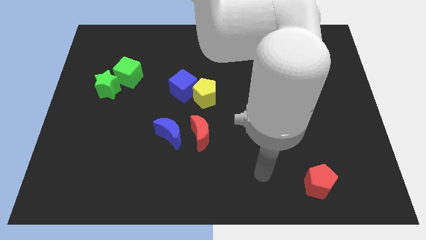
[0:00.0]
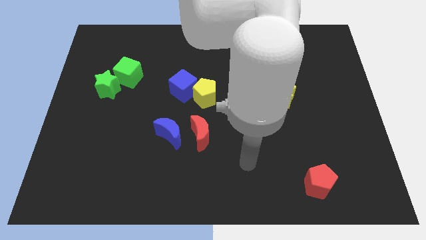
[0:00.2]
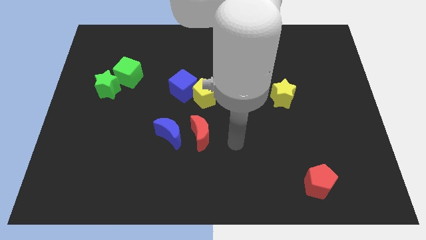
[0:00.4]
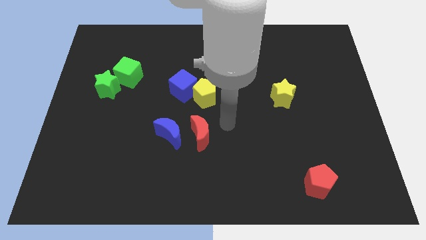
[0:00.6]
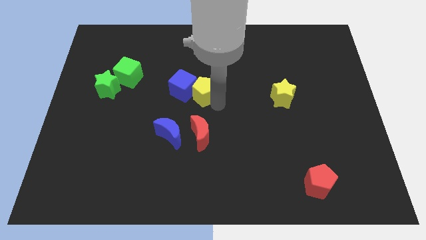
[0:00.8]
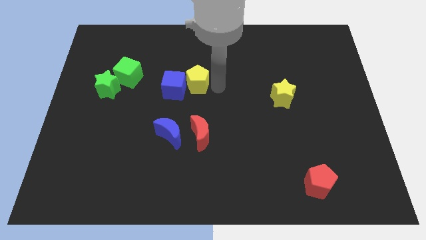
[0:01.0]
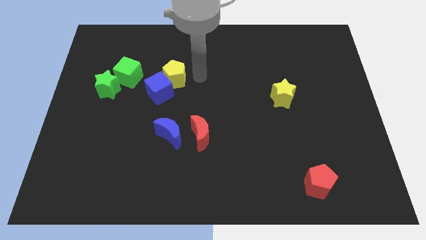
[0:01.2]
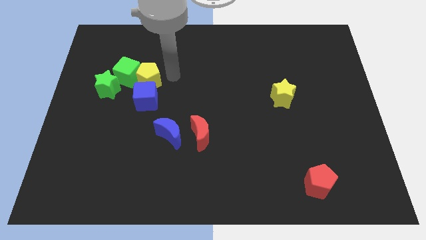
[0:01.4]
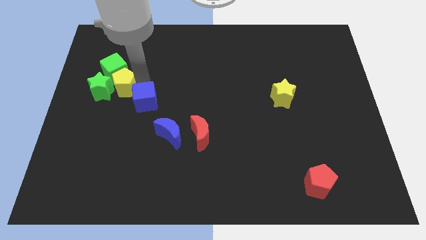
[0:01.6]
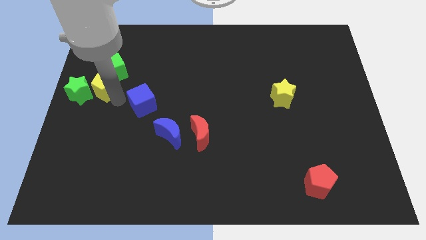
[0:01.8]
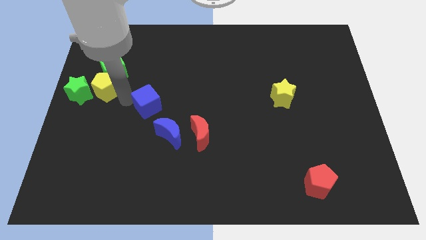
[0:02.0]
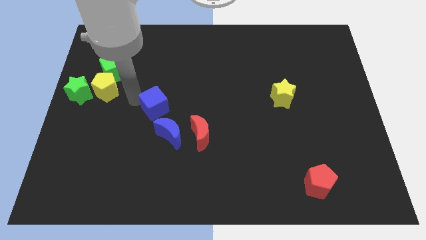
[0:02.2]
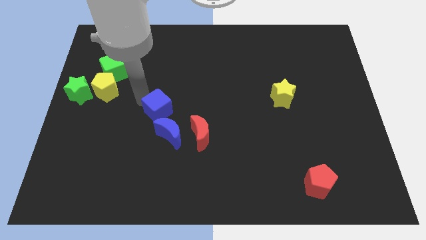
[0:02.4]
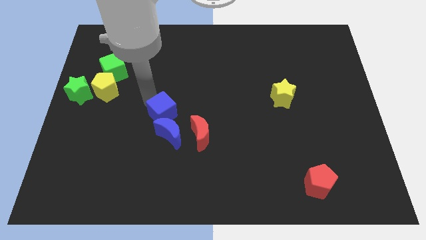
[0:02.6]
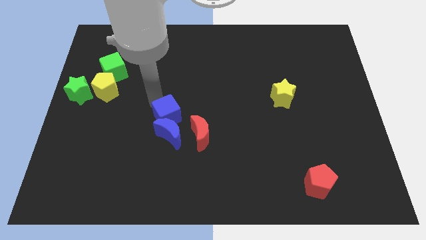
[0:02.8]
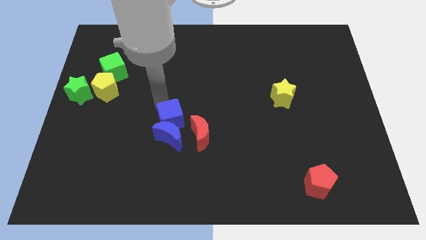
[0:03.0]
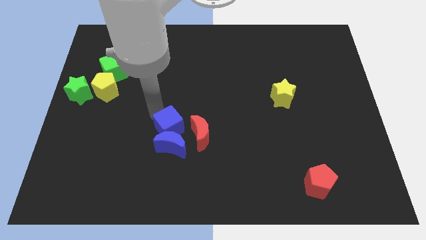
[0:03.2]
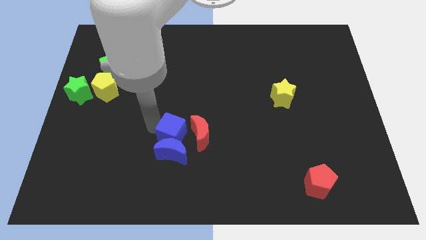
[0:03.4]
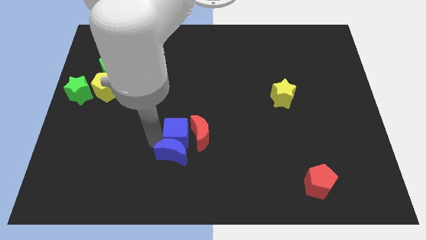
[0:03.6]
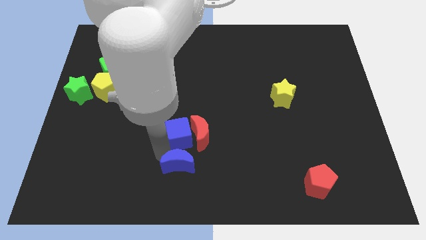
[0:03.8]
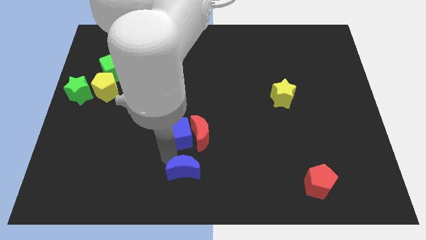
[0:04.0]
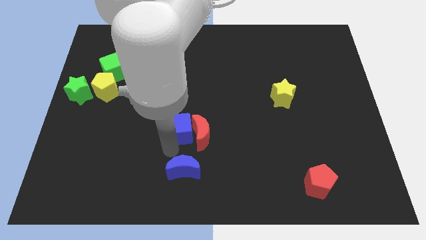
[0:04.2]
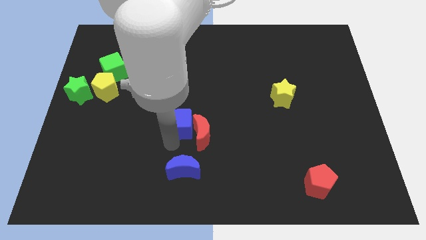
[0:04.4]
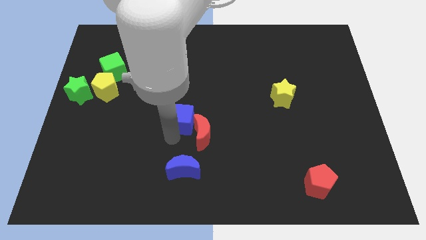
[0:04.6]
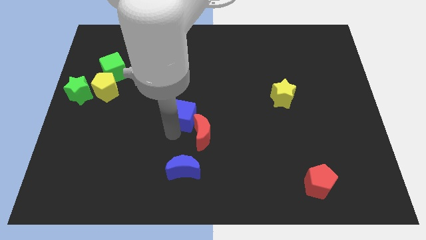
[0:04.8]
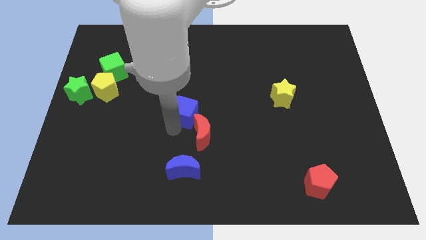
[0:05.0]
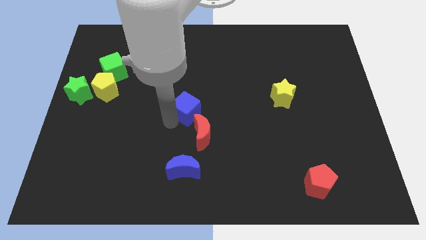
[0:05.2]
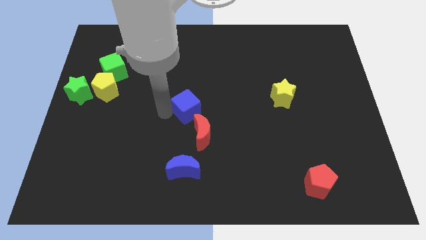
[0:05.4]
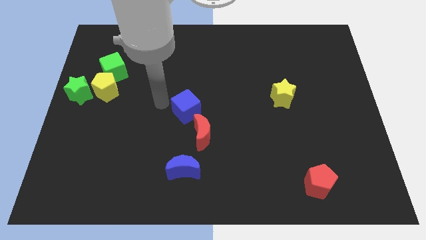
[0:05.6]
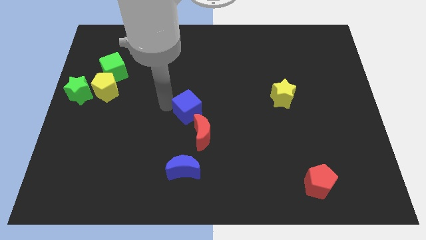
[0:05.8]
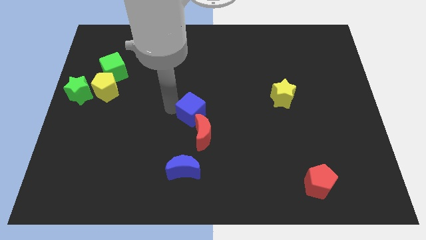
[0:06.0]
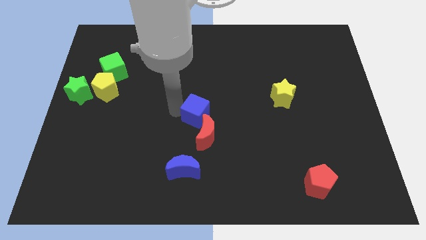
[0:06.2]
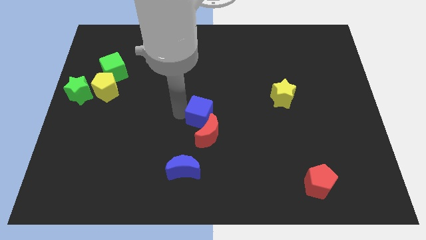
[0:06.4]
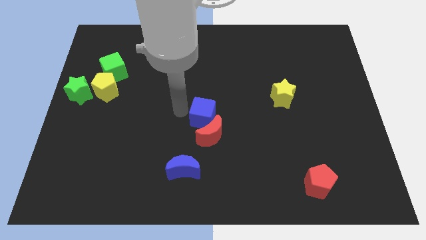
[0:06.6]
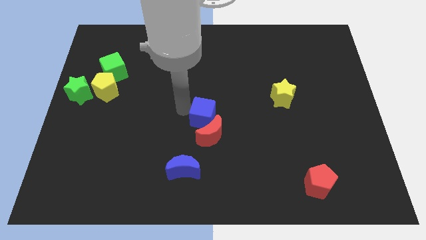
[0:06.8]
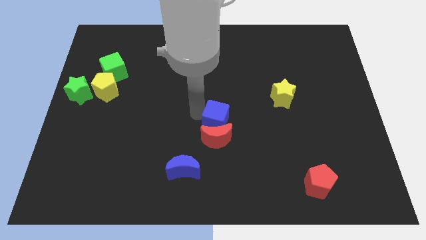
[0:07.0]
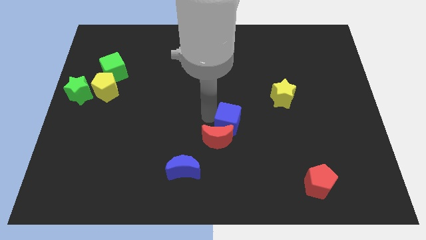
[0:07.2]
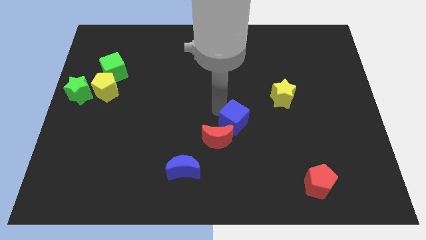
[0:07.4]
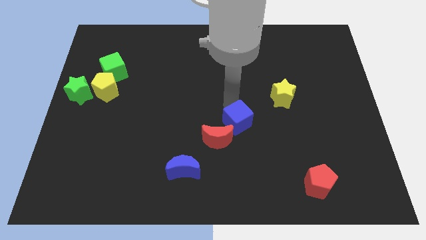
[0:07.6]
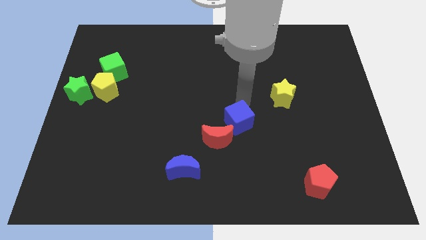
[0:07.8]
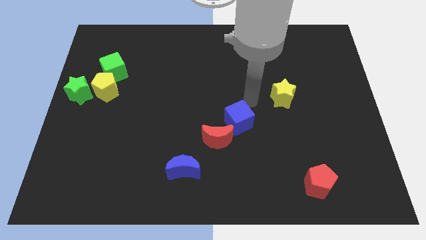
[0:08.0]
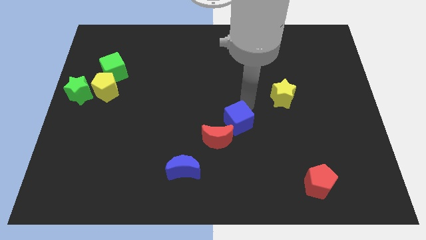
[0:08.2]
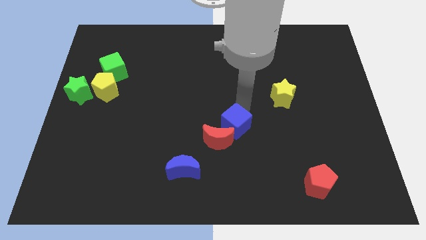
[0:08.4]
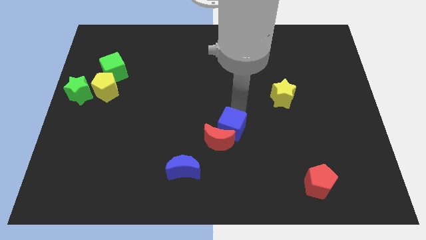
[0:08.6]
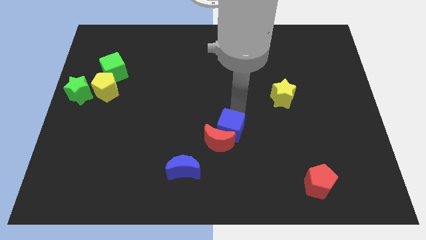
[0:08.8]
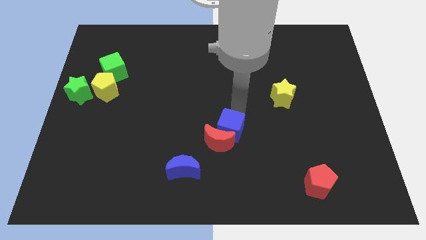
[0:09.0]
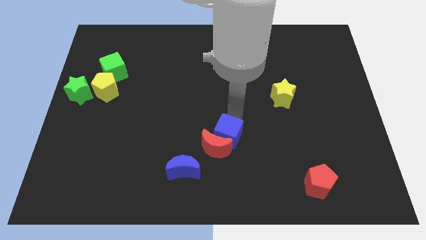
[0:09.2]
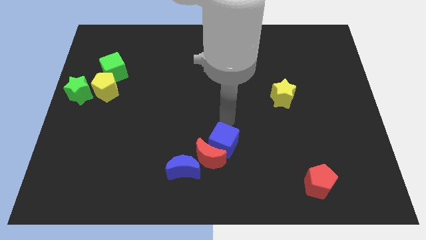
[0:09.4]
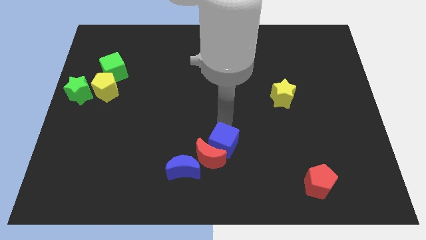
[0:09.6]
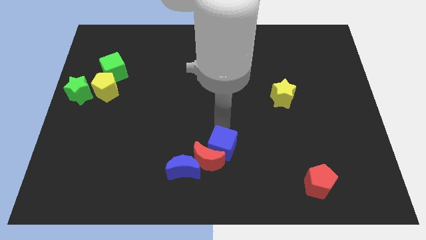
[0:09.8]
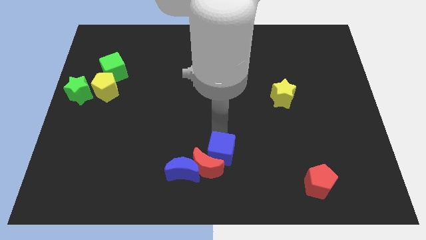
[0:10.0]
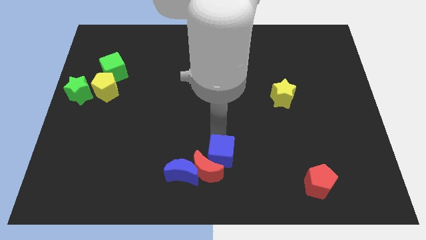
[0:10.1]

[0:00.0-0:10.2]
slide the blue cube to the bottom side

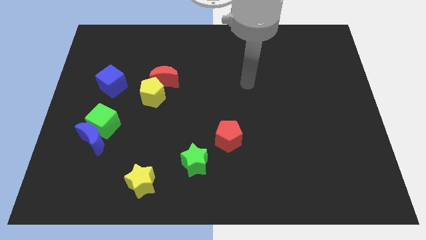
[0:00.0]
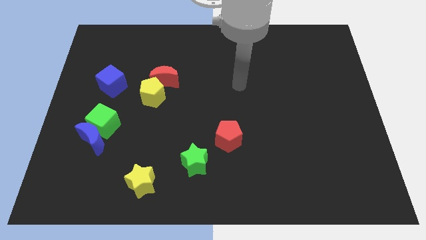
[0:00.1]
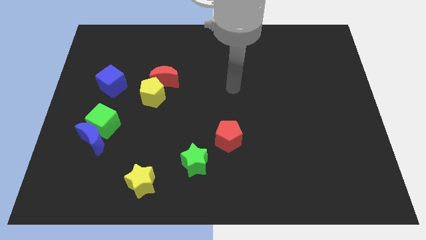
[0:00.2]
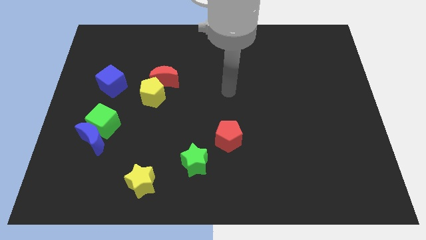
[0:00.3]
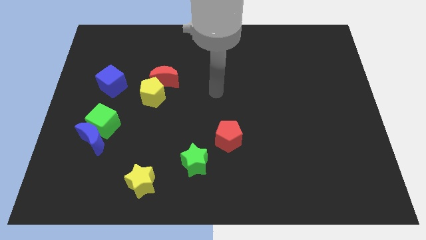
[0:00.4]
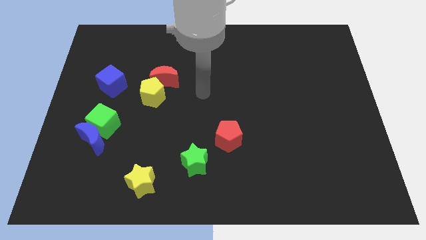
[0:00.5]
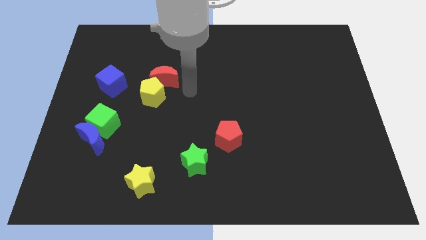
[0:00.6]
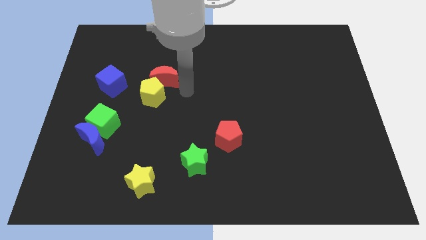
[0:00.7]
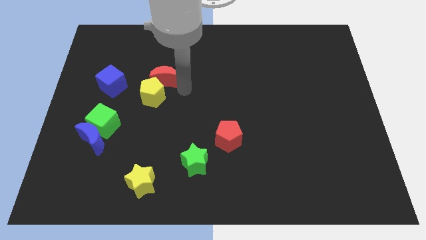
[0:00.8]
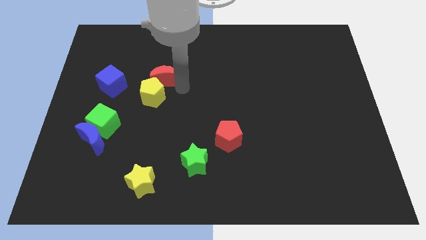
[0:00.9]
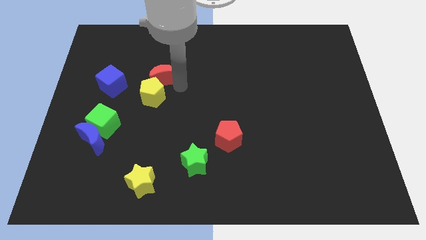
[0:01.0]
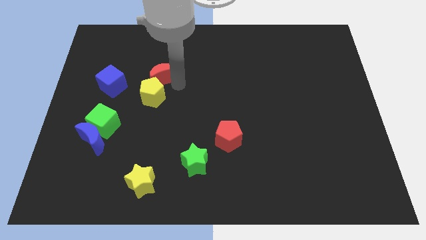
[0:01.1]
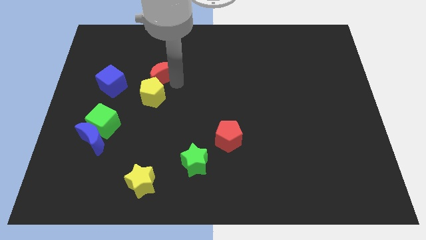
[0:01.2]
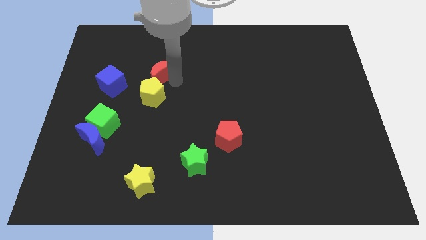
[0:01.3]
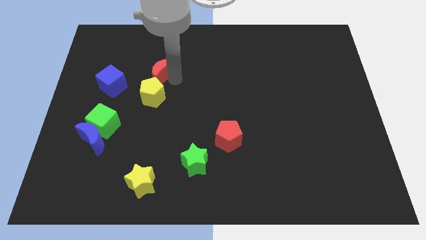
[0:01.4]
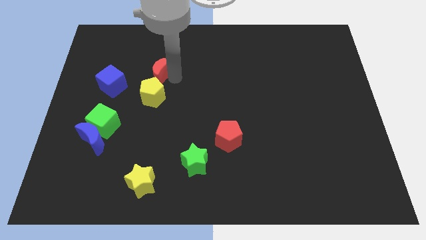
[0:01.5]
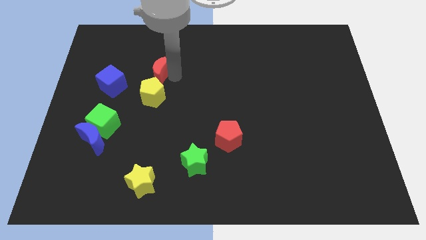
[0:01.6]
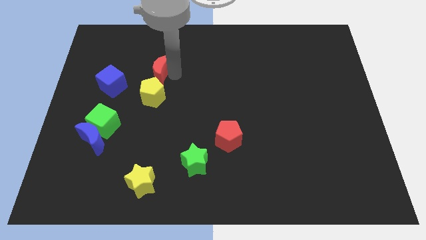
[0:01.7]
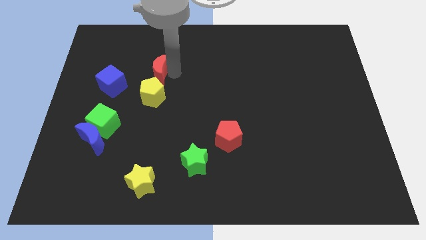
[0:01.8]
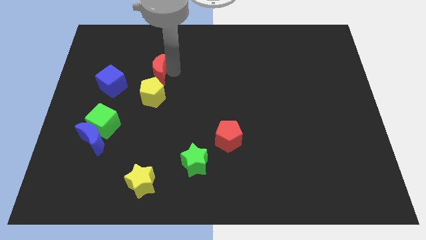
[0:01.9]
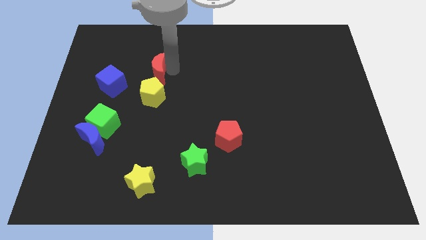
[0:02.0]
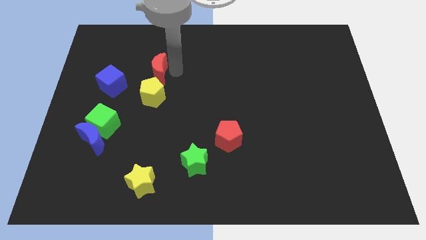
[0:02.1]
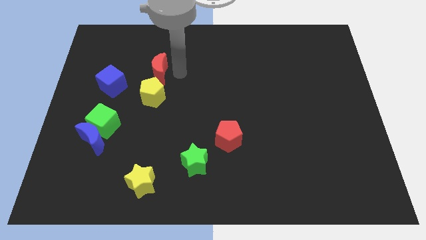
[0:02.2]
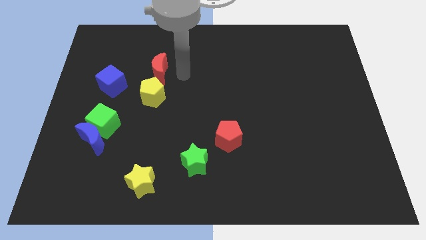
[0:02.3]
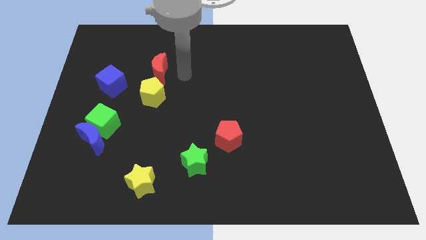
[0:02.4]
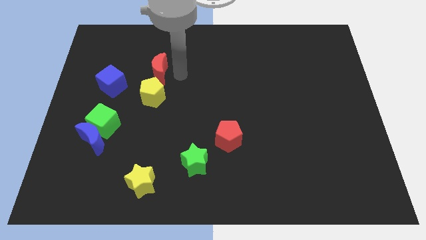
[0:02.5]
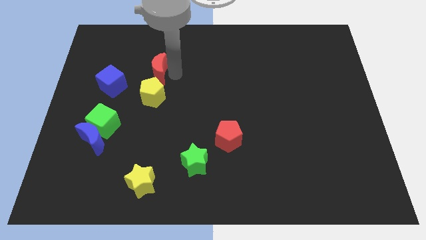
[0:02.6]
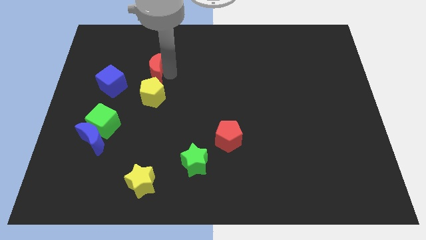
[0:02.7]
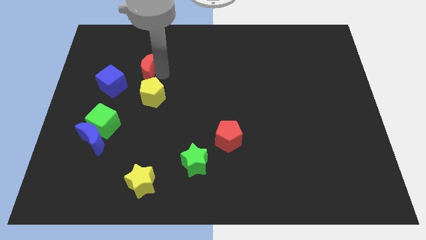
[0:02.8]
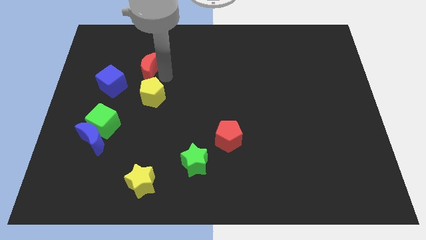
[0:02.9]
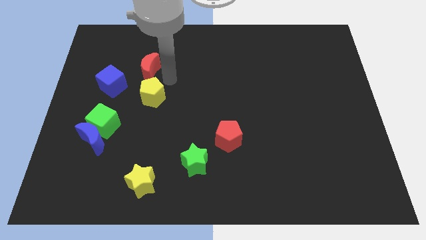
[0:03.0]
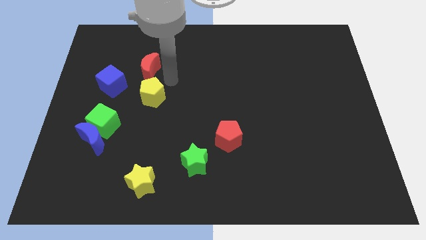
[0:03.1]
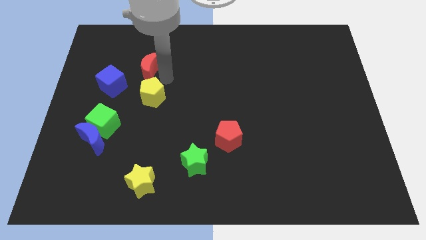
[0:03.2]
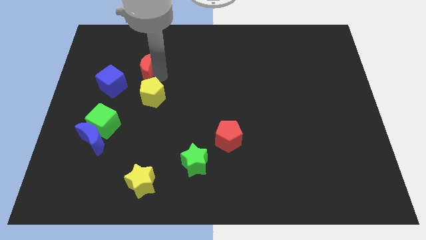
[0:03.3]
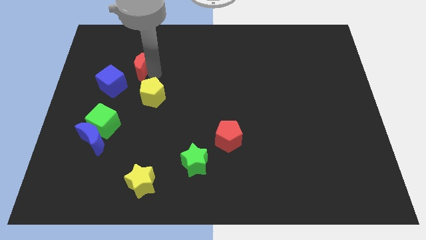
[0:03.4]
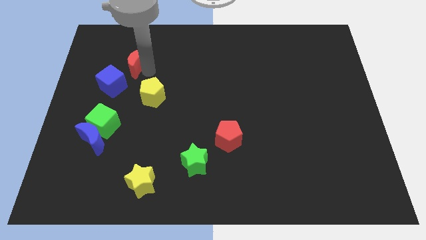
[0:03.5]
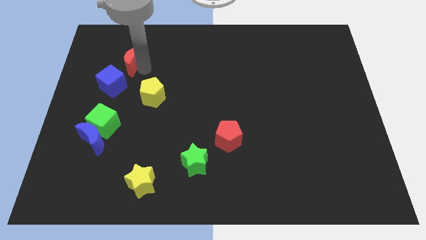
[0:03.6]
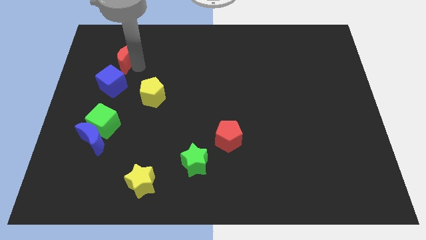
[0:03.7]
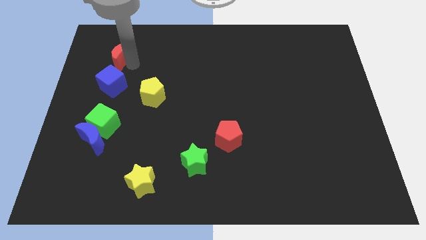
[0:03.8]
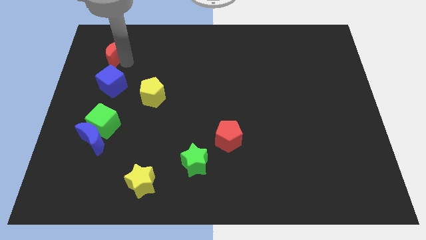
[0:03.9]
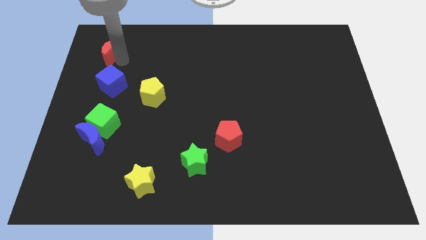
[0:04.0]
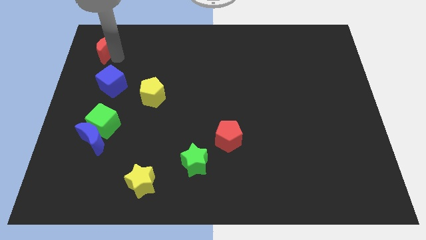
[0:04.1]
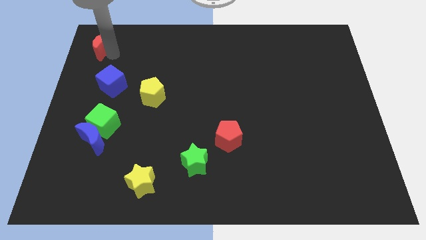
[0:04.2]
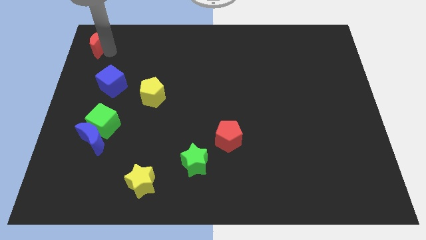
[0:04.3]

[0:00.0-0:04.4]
put the red moon to the top left corner
